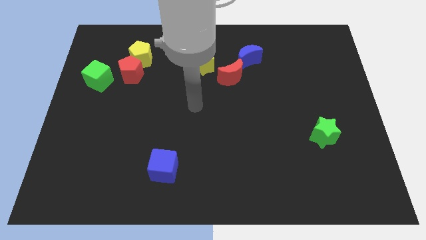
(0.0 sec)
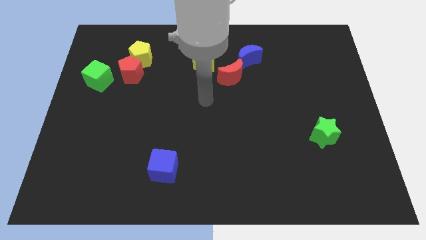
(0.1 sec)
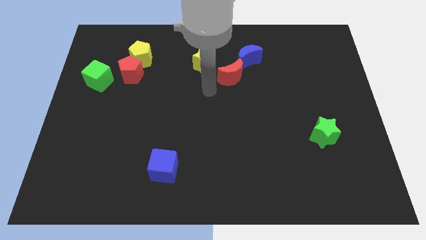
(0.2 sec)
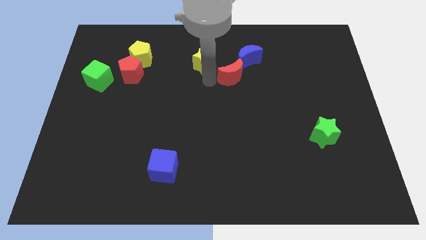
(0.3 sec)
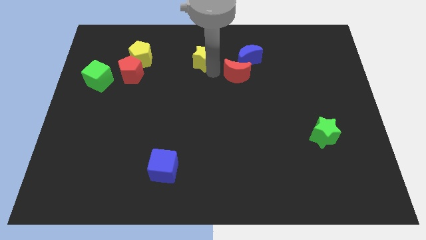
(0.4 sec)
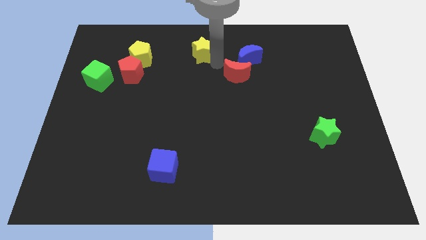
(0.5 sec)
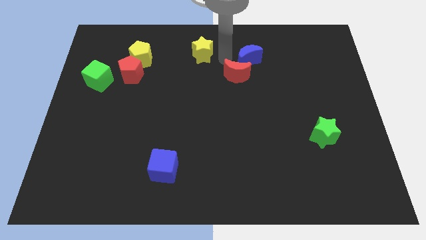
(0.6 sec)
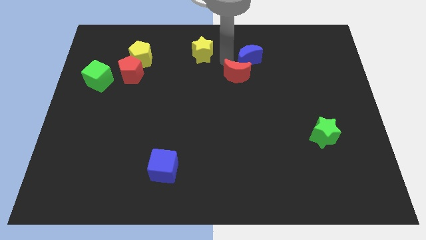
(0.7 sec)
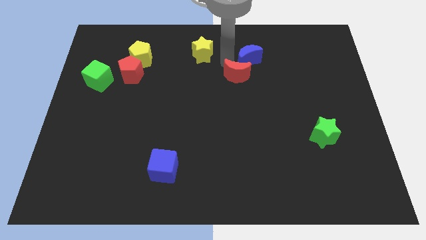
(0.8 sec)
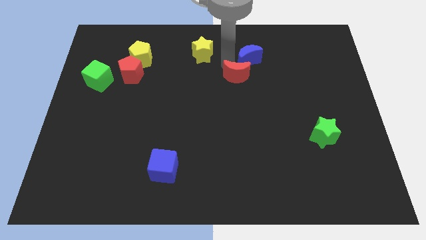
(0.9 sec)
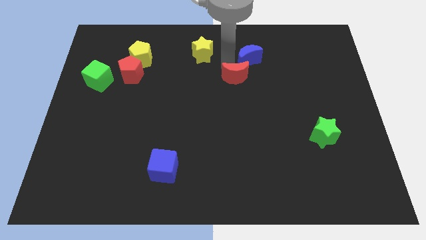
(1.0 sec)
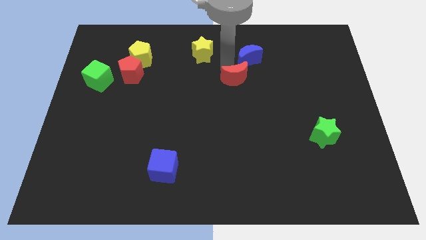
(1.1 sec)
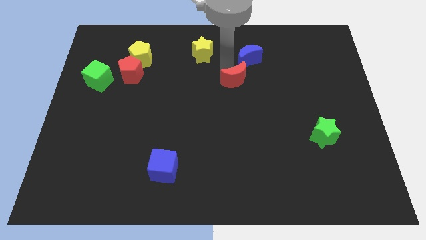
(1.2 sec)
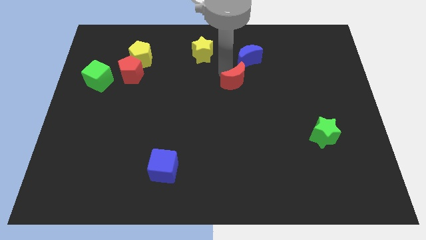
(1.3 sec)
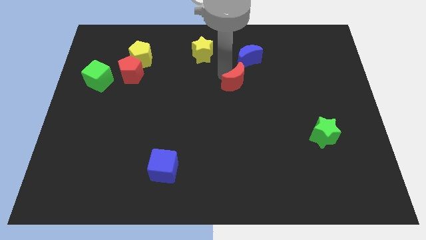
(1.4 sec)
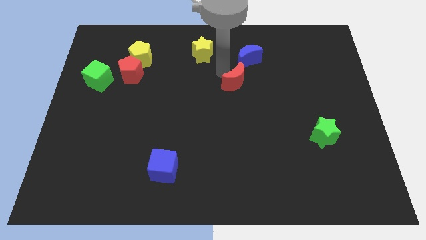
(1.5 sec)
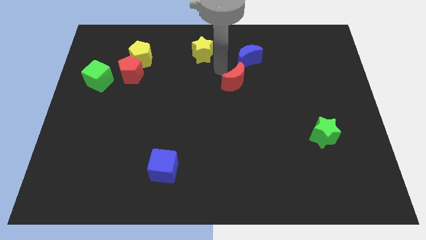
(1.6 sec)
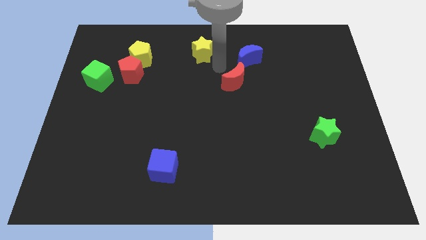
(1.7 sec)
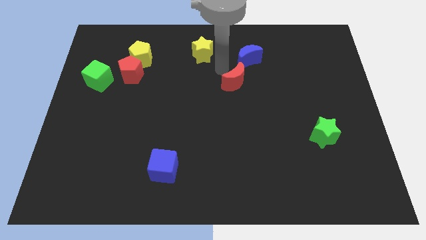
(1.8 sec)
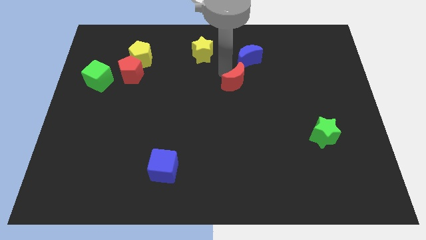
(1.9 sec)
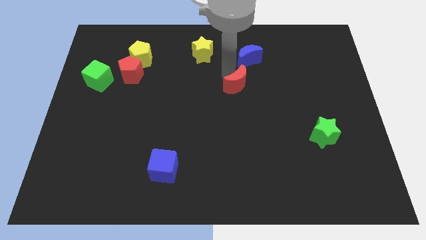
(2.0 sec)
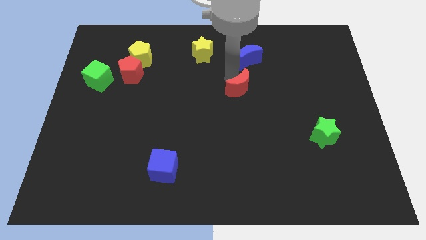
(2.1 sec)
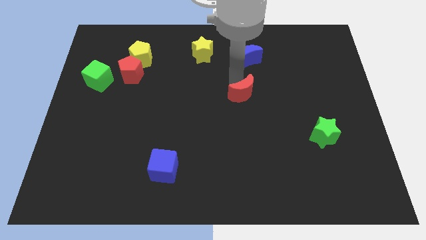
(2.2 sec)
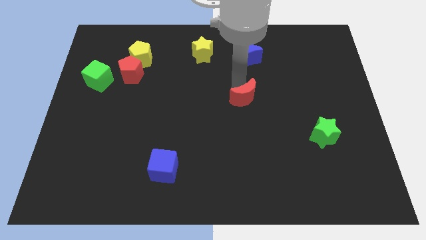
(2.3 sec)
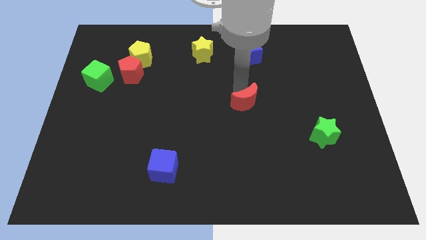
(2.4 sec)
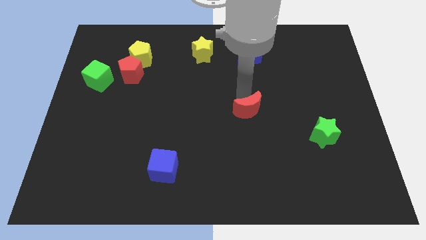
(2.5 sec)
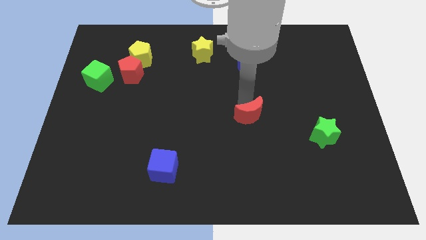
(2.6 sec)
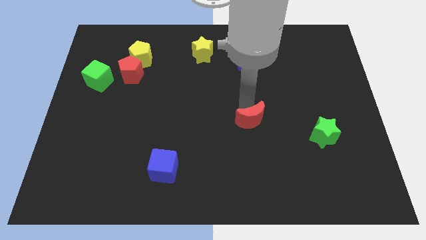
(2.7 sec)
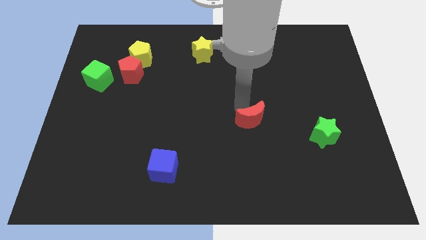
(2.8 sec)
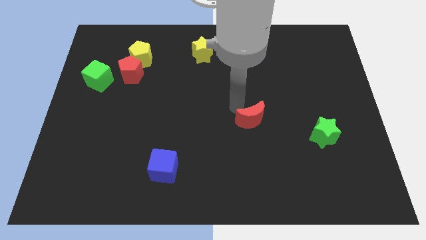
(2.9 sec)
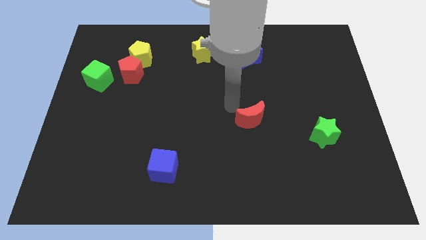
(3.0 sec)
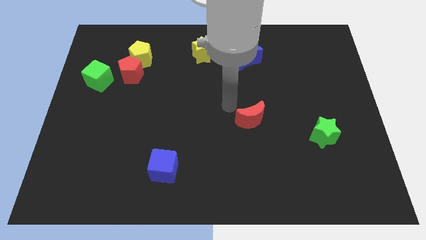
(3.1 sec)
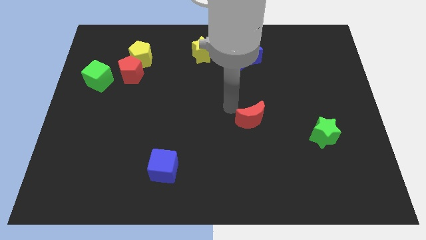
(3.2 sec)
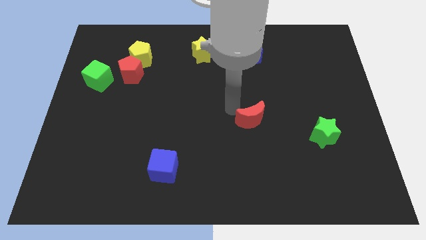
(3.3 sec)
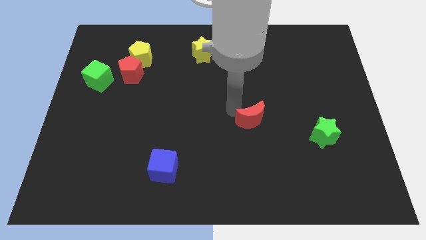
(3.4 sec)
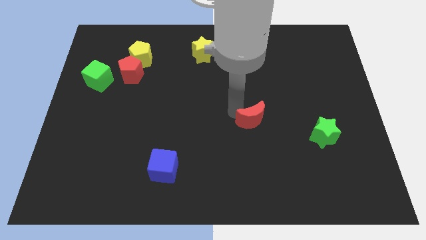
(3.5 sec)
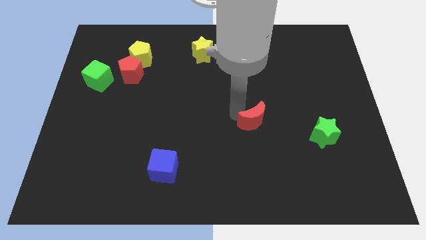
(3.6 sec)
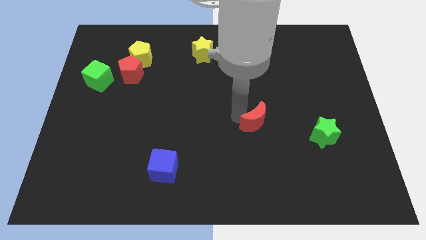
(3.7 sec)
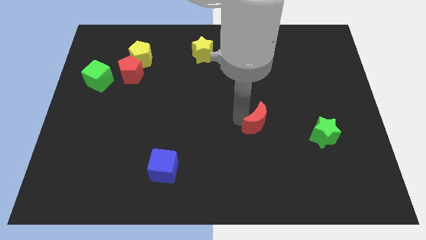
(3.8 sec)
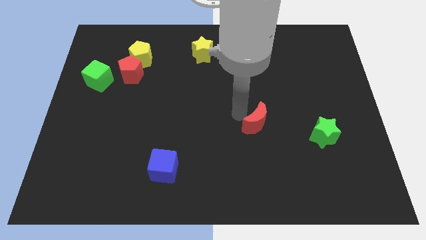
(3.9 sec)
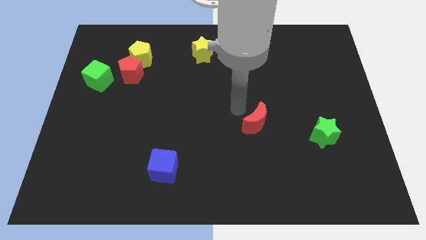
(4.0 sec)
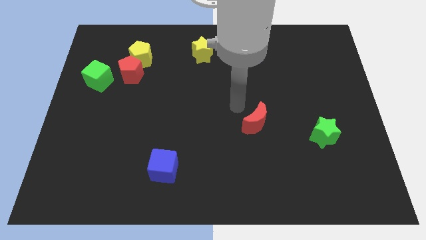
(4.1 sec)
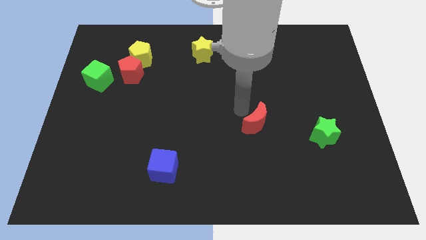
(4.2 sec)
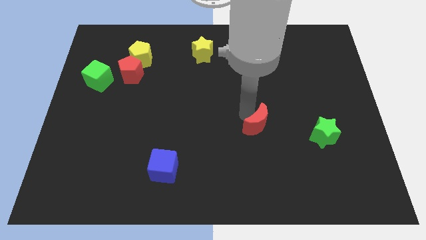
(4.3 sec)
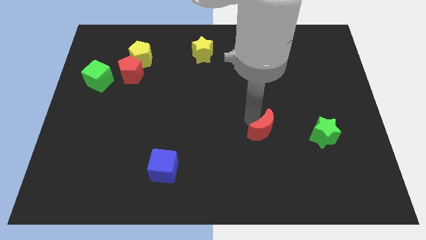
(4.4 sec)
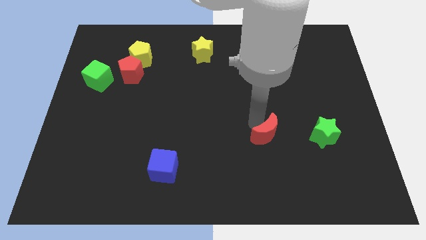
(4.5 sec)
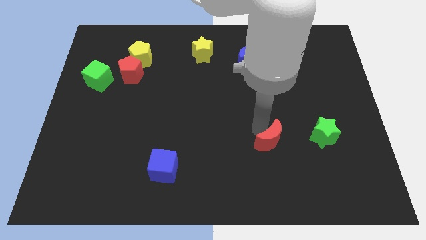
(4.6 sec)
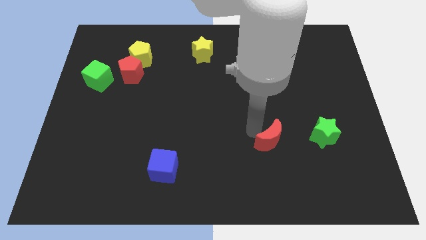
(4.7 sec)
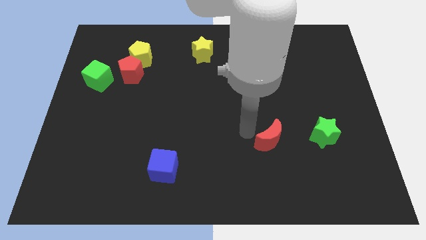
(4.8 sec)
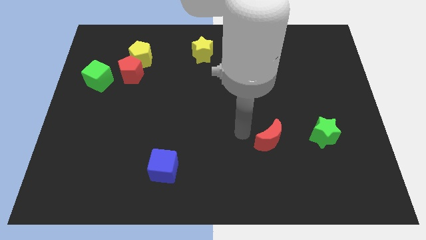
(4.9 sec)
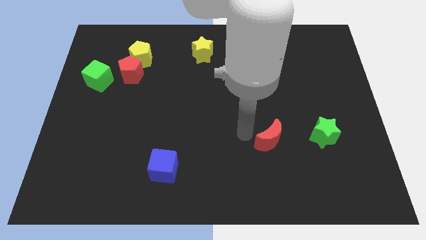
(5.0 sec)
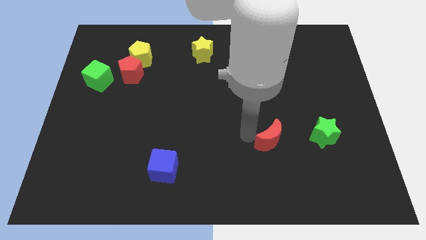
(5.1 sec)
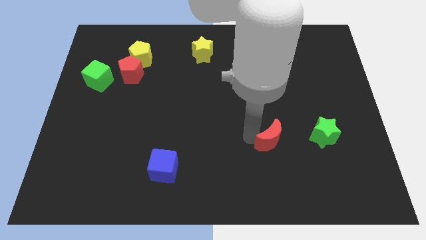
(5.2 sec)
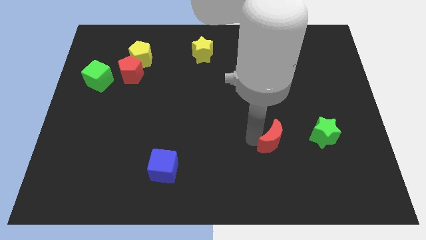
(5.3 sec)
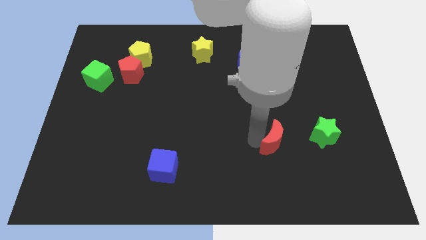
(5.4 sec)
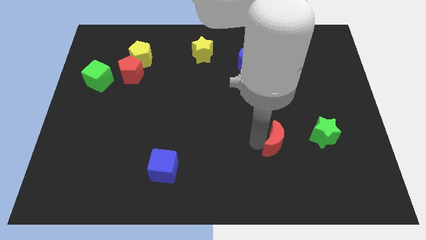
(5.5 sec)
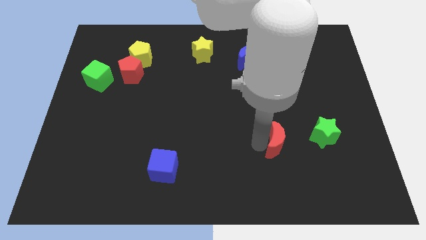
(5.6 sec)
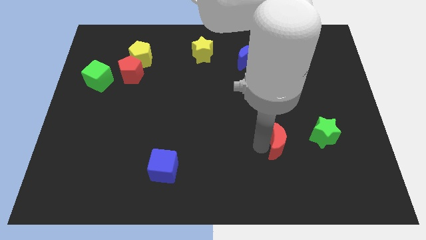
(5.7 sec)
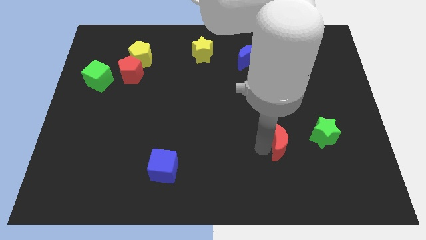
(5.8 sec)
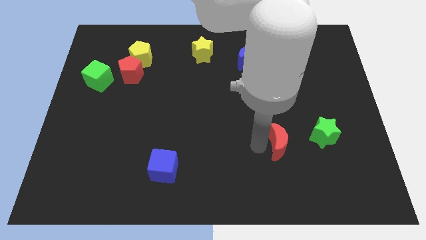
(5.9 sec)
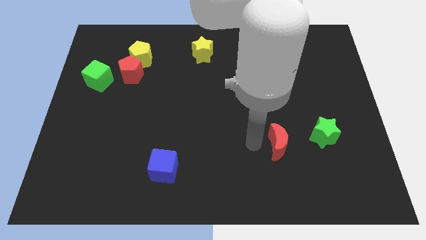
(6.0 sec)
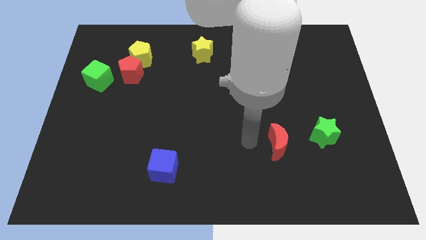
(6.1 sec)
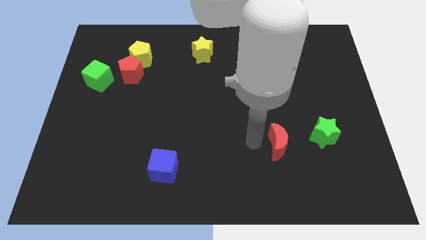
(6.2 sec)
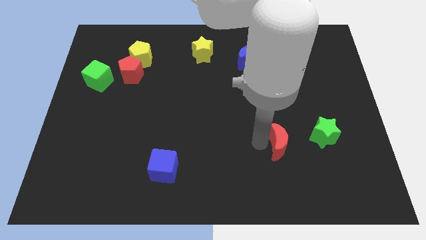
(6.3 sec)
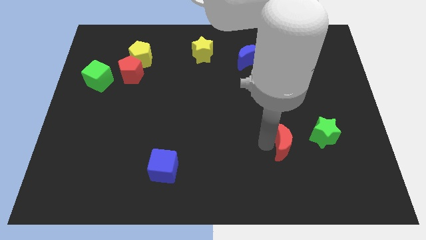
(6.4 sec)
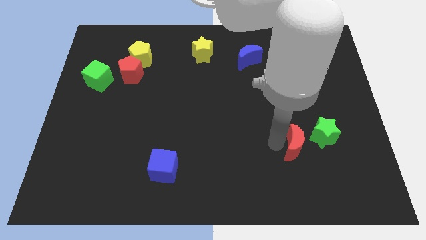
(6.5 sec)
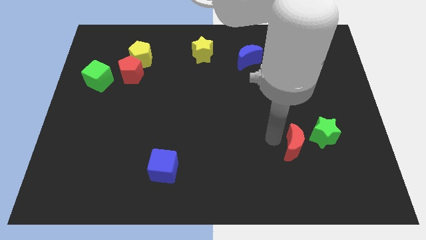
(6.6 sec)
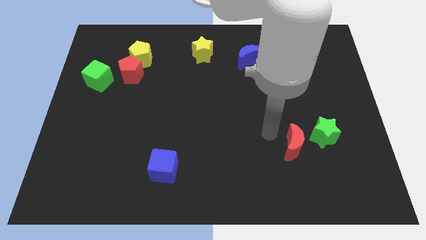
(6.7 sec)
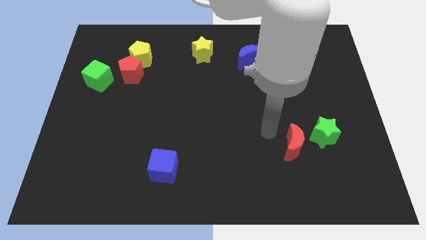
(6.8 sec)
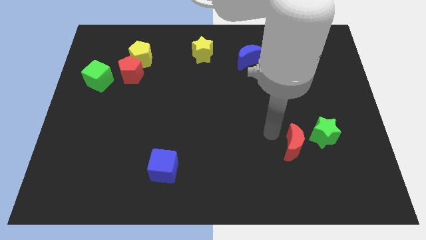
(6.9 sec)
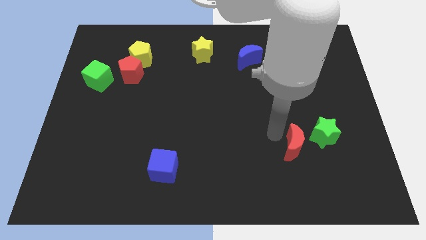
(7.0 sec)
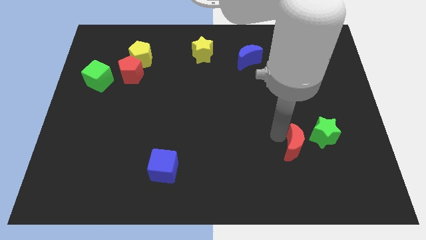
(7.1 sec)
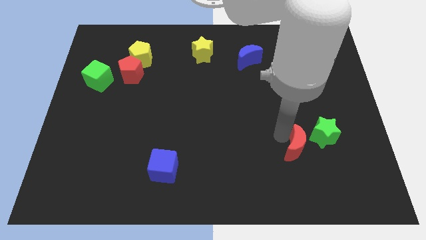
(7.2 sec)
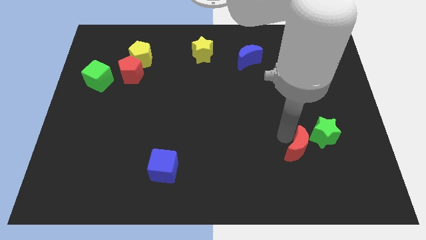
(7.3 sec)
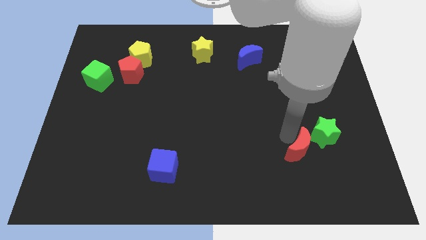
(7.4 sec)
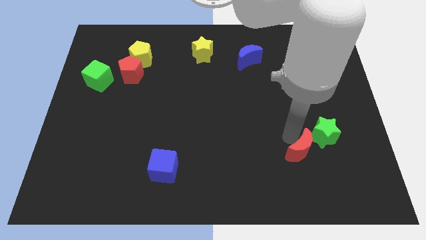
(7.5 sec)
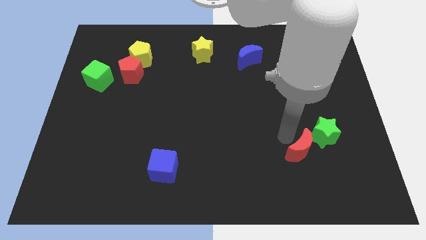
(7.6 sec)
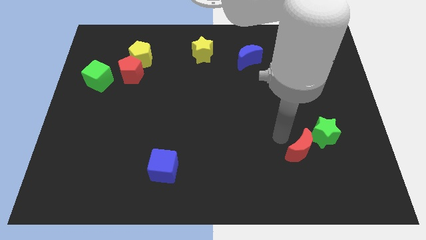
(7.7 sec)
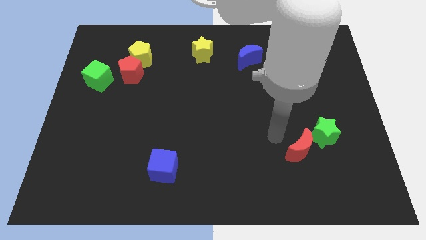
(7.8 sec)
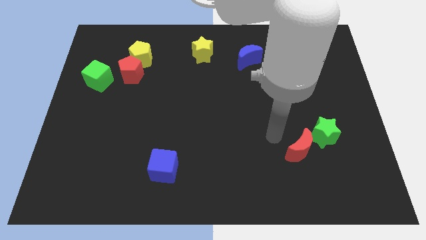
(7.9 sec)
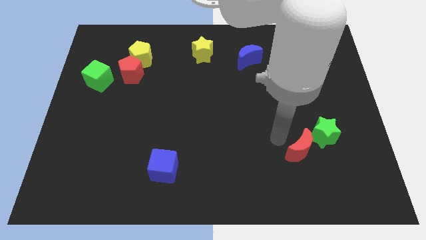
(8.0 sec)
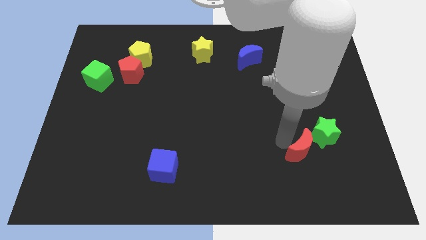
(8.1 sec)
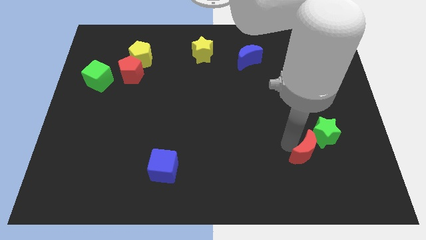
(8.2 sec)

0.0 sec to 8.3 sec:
put the red moon to the bottom of the green star
